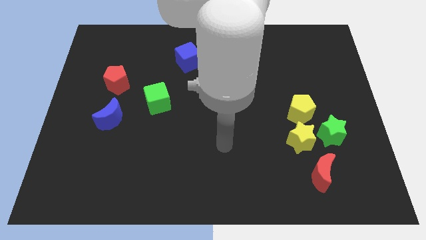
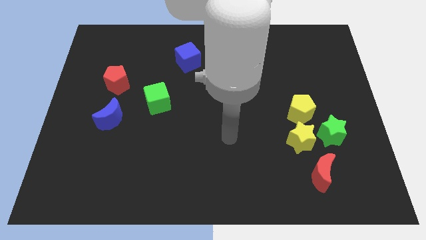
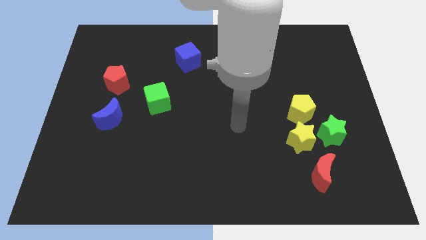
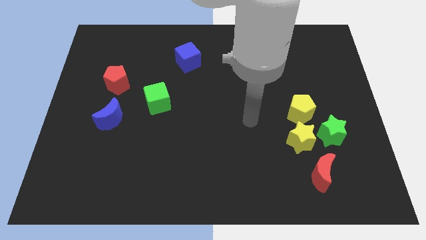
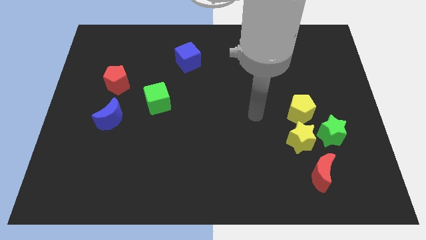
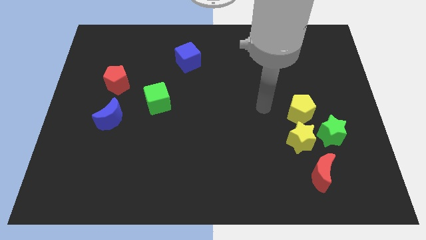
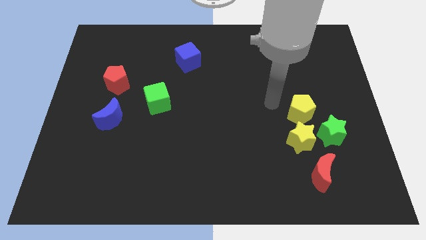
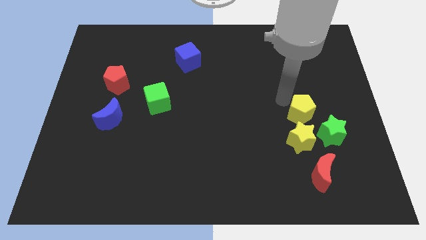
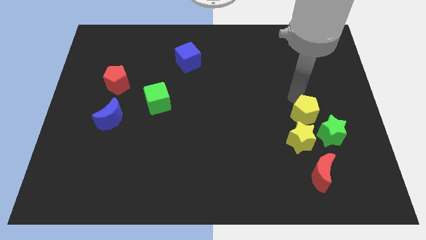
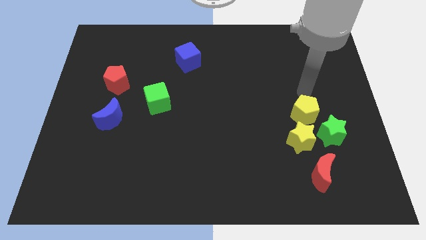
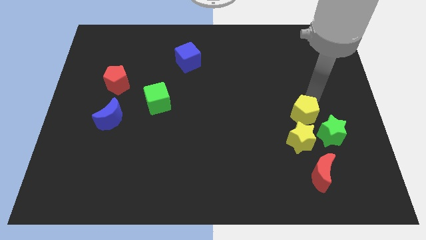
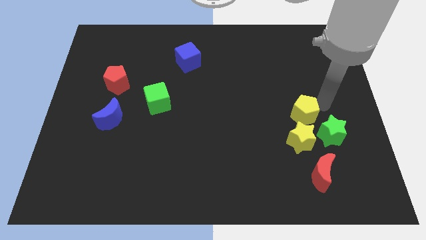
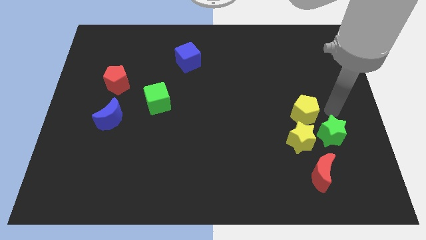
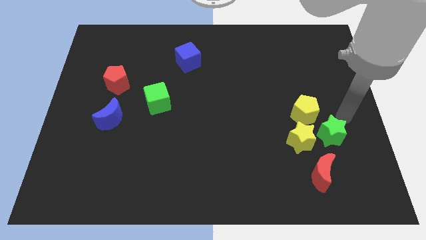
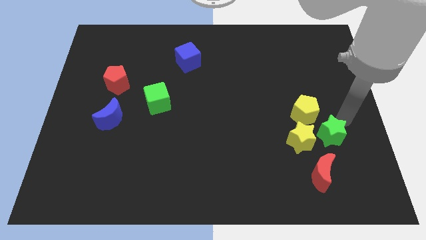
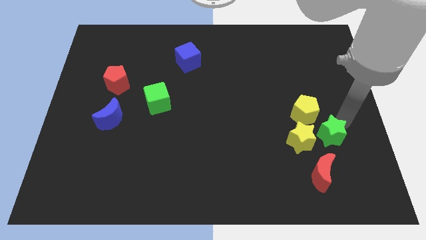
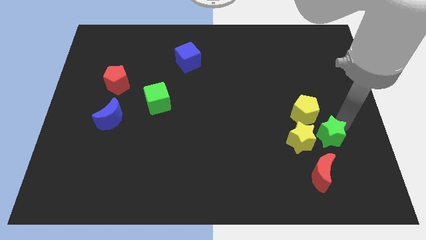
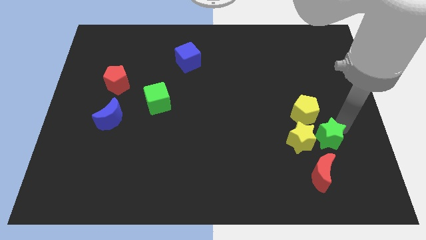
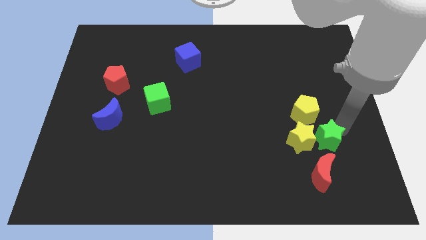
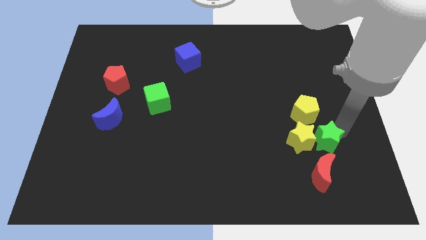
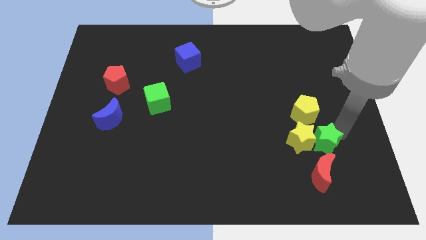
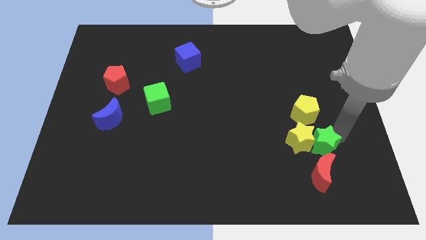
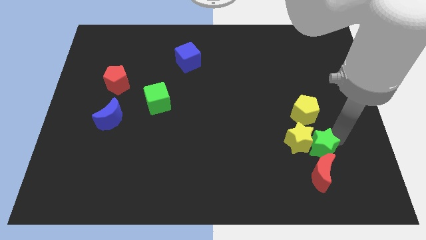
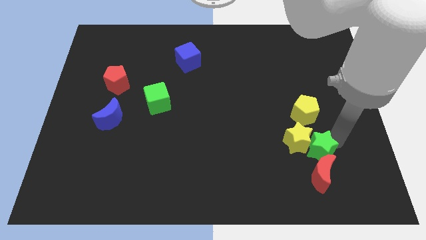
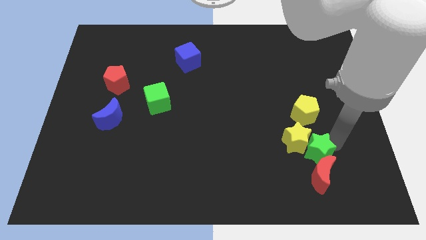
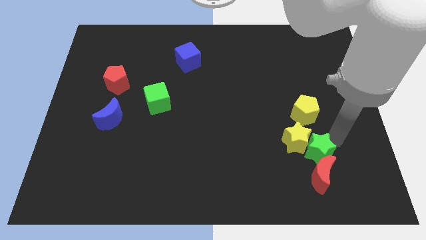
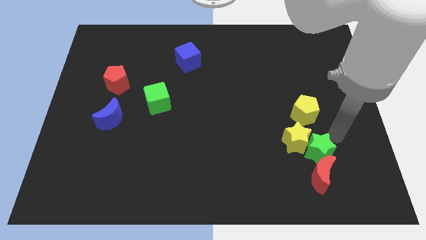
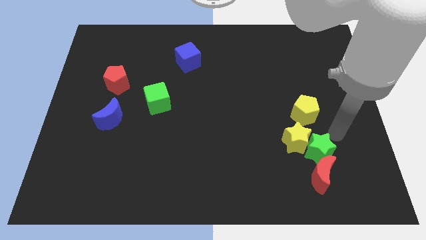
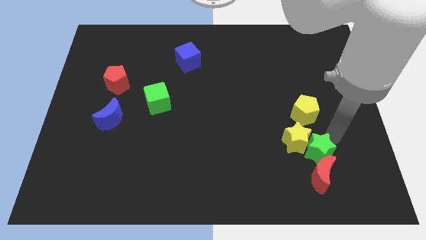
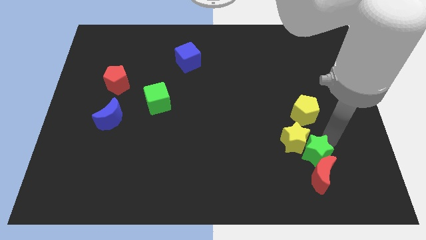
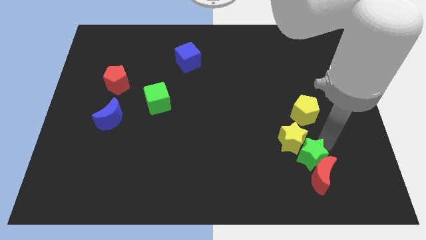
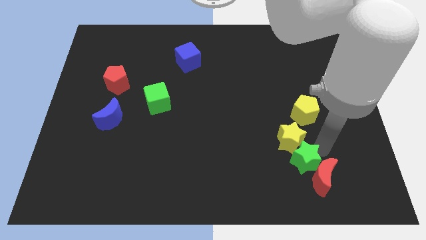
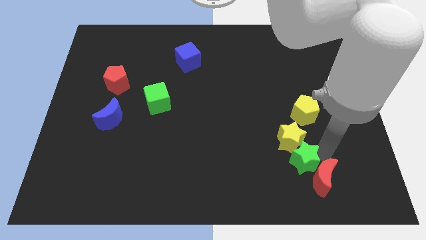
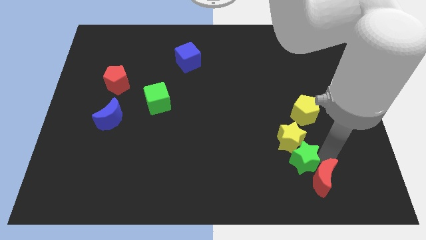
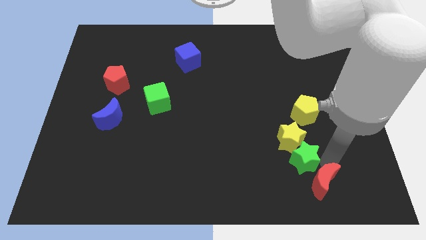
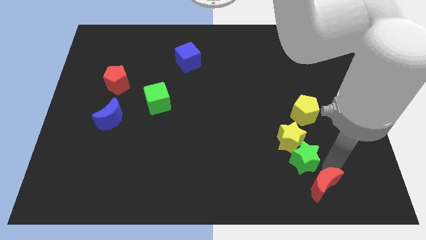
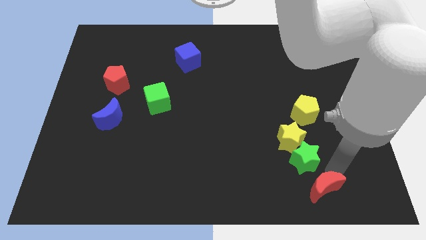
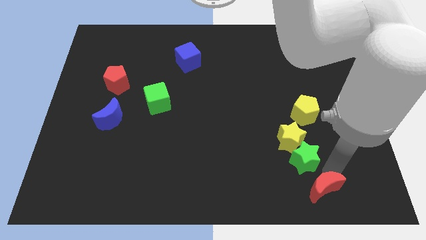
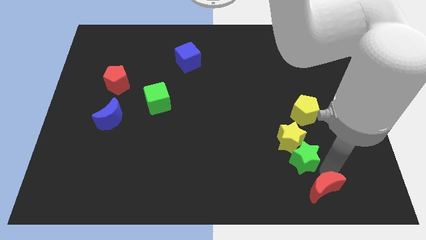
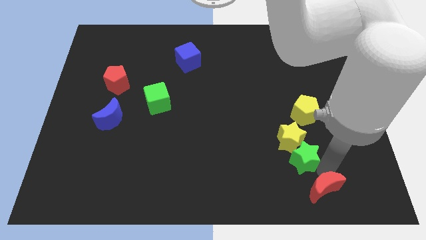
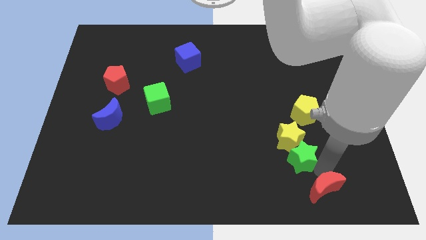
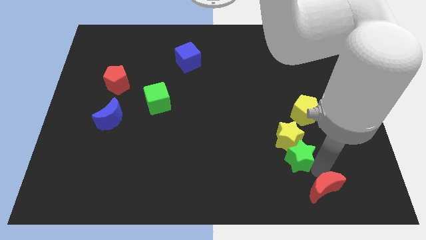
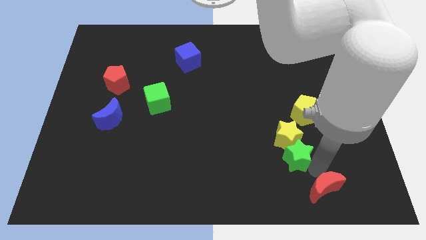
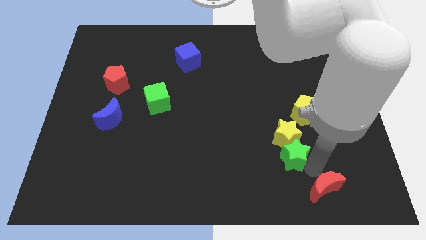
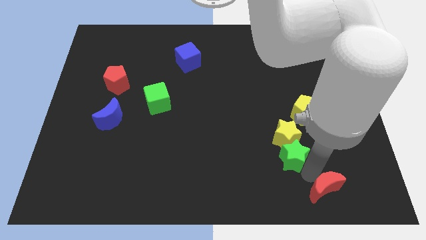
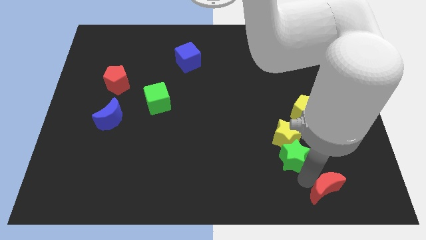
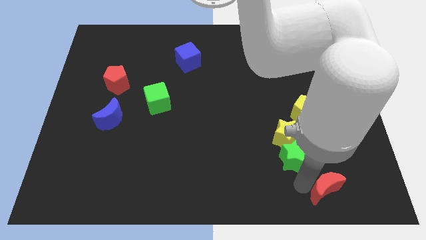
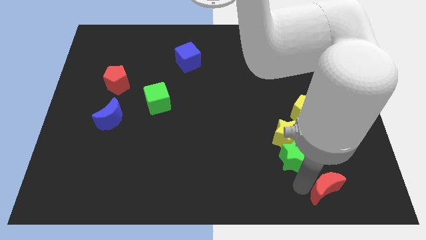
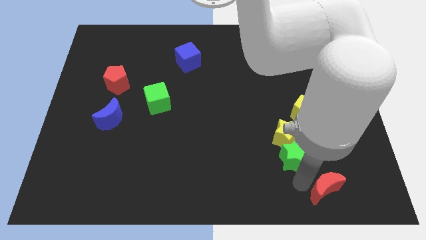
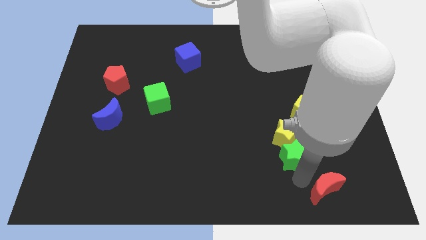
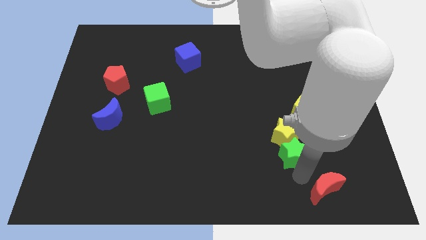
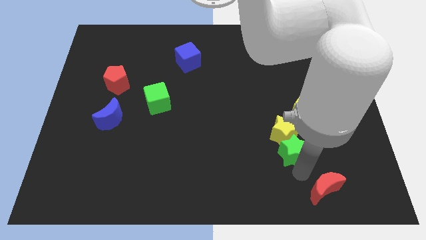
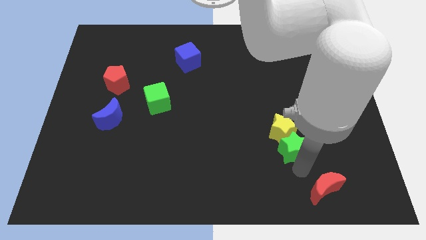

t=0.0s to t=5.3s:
move the green star diagonally down and to the left of the yellow pentagon
